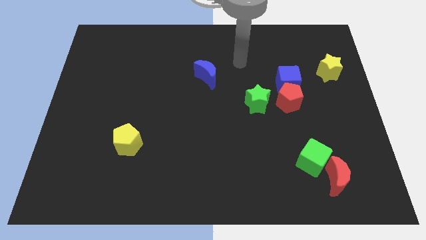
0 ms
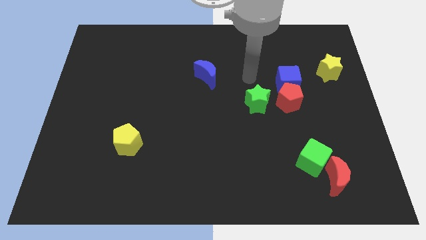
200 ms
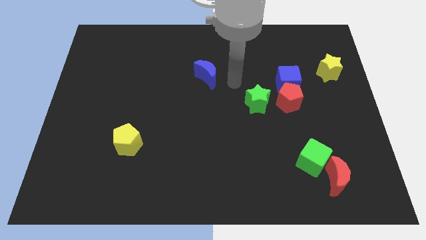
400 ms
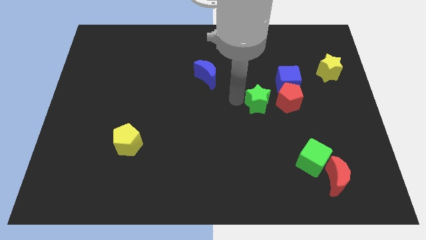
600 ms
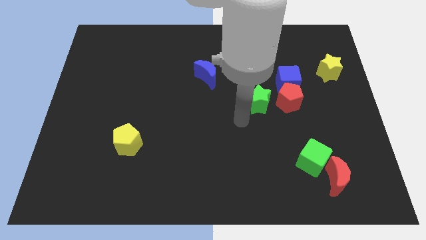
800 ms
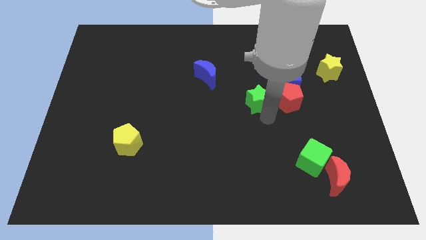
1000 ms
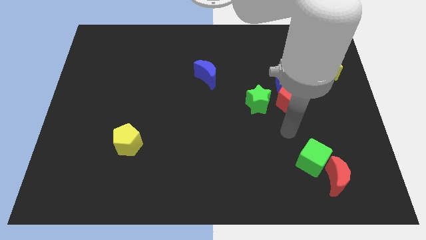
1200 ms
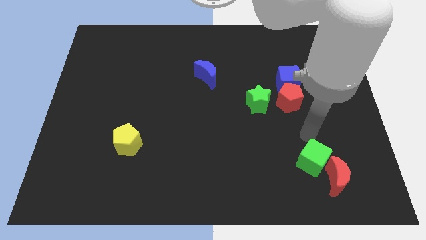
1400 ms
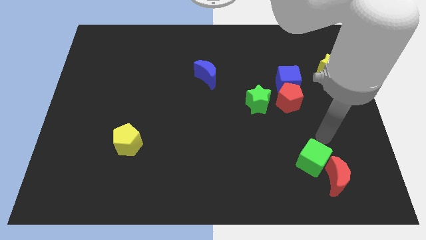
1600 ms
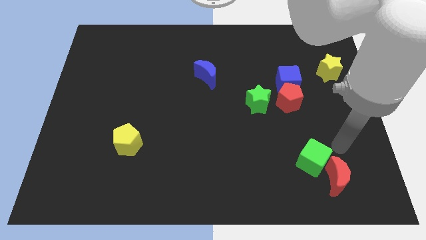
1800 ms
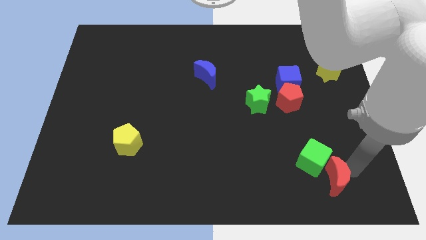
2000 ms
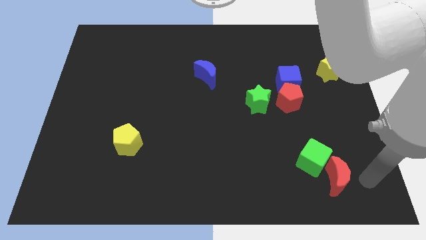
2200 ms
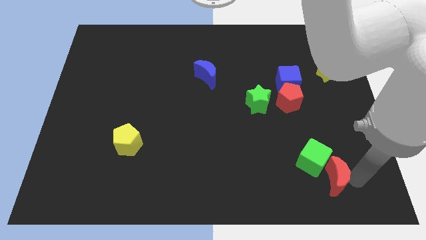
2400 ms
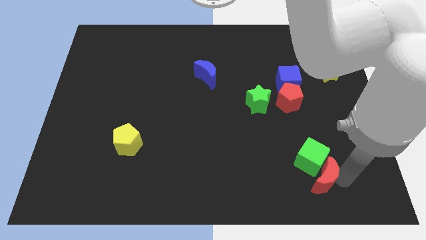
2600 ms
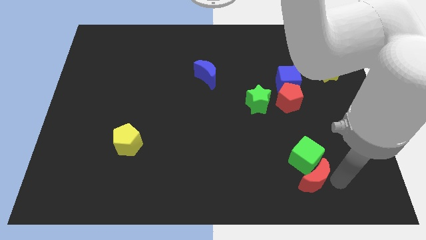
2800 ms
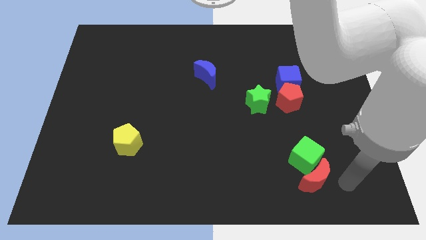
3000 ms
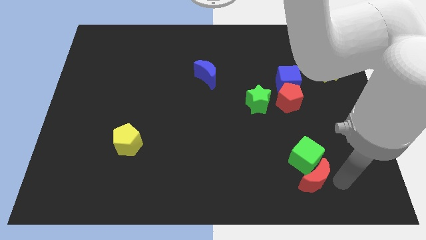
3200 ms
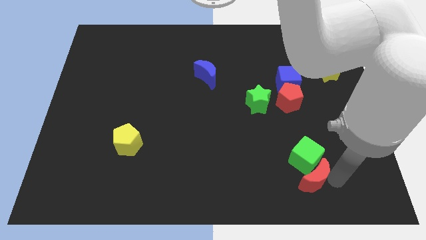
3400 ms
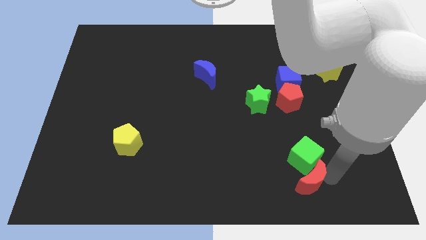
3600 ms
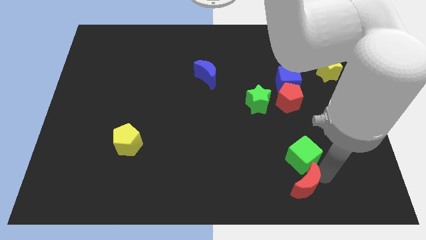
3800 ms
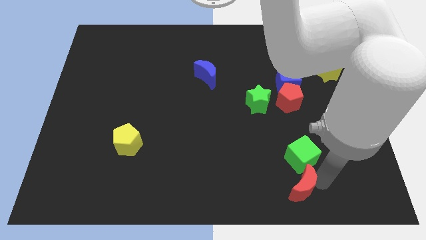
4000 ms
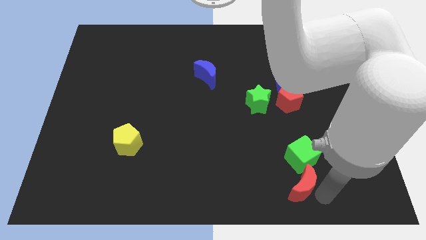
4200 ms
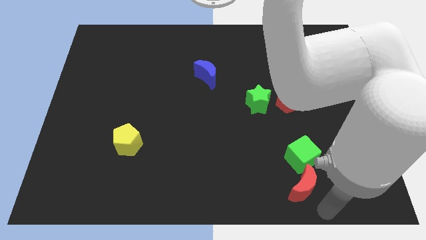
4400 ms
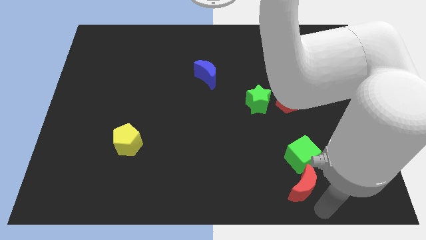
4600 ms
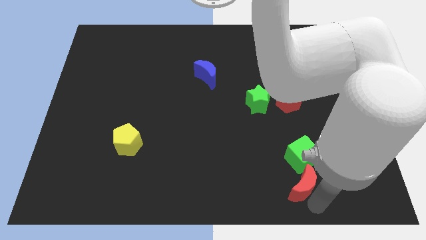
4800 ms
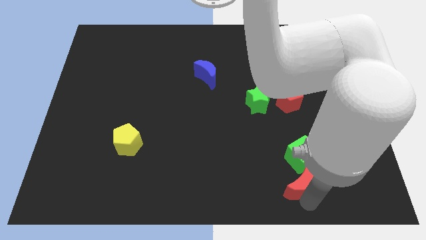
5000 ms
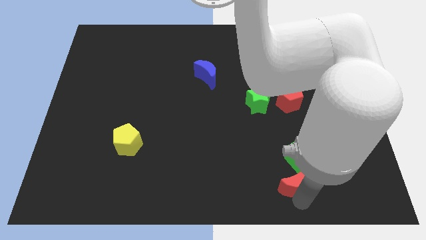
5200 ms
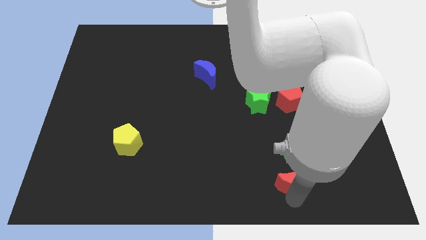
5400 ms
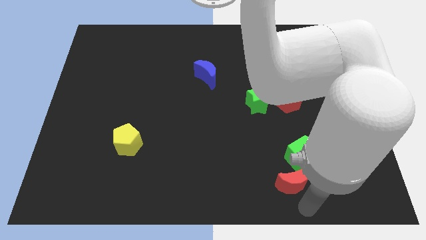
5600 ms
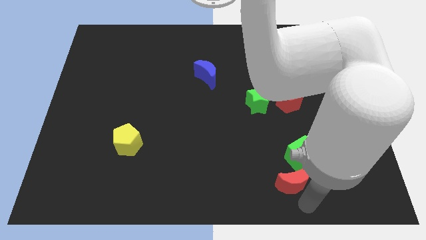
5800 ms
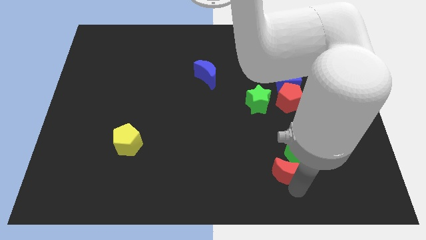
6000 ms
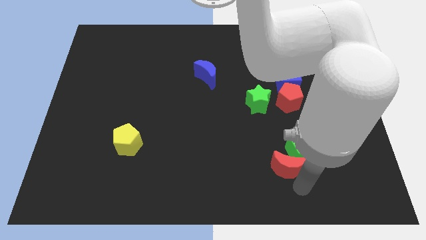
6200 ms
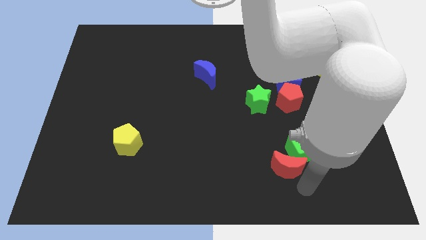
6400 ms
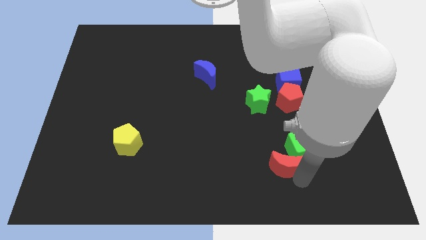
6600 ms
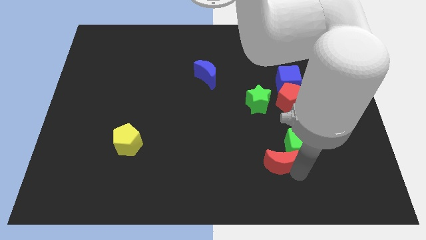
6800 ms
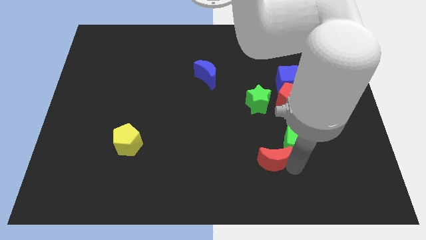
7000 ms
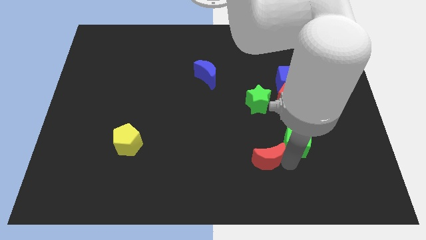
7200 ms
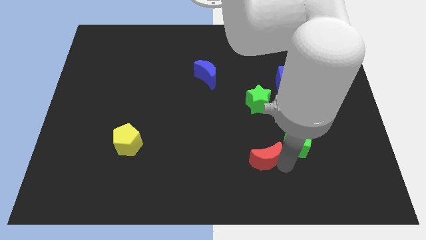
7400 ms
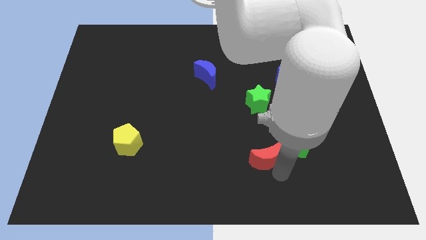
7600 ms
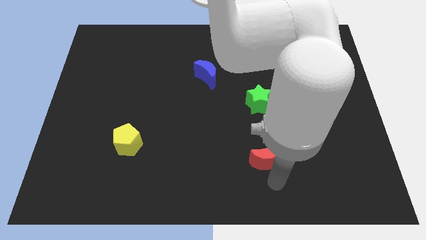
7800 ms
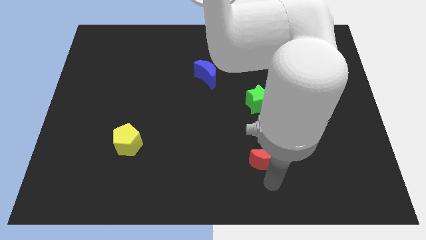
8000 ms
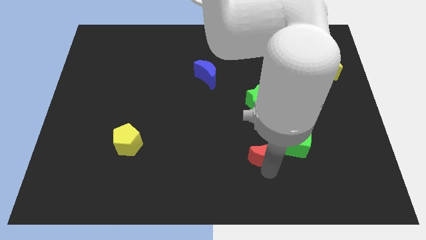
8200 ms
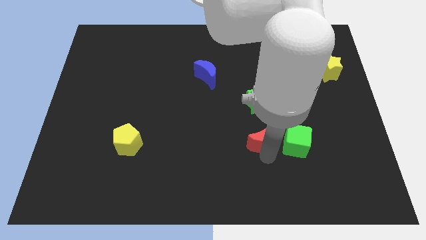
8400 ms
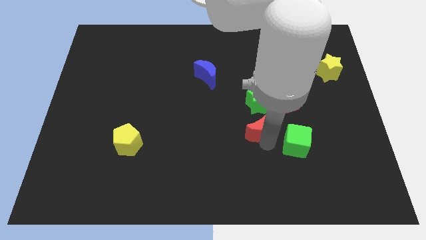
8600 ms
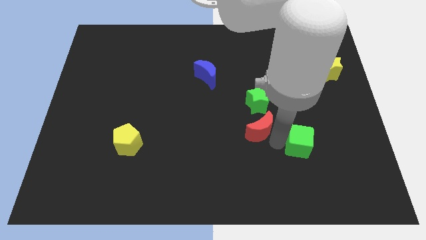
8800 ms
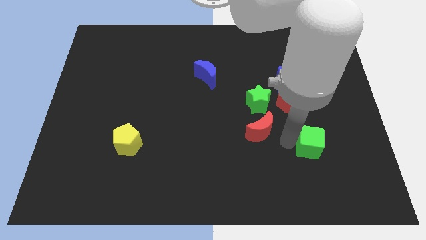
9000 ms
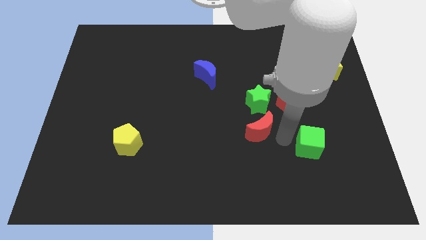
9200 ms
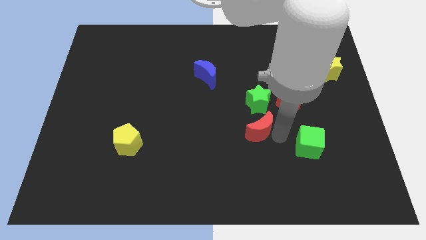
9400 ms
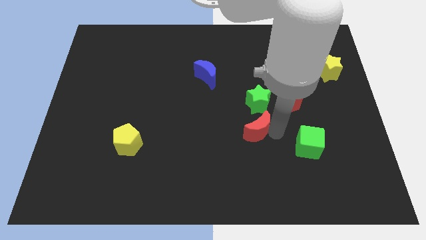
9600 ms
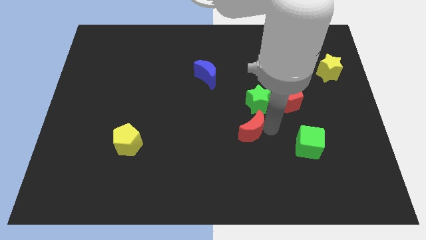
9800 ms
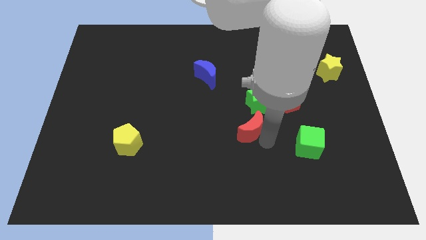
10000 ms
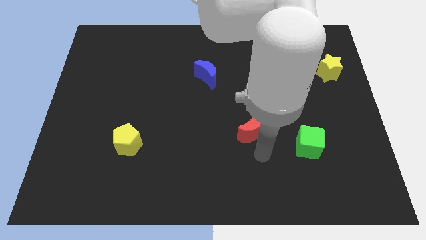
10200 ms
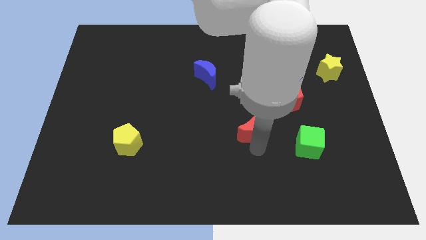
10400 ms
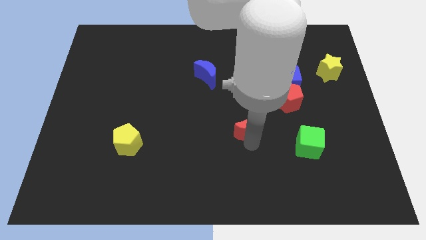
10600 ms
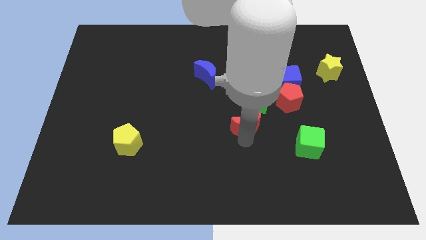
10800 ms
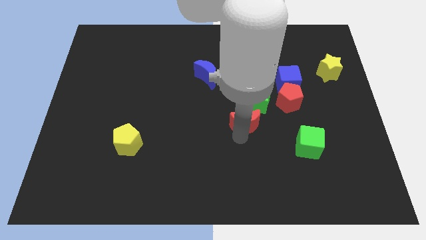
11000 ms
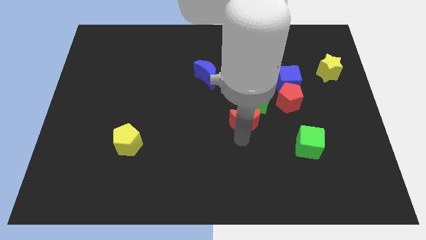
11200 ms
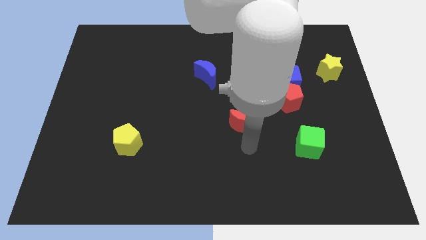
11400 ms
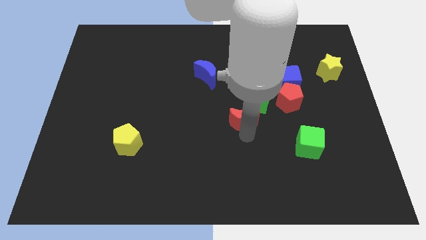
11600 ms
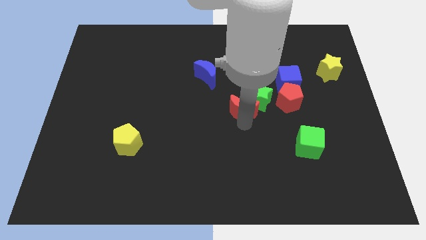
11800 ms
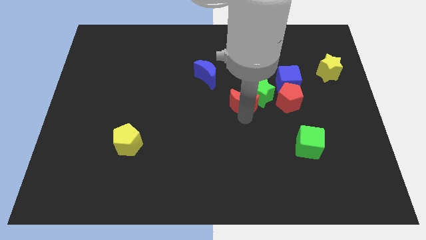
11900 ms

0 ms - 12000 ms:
move the red moon to the bottom right side of the blue moon

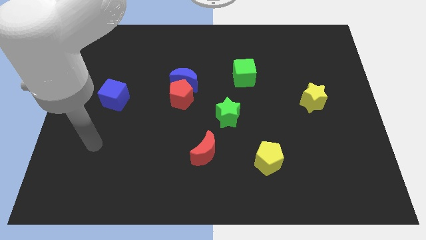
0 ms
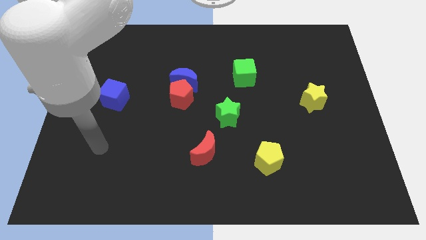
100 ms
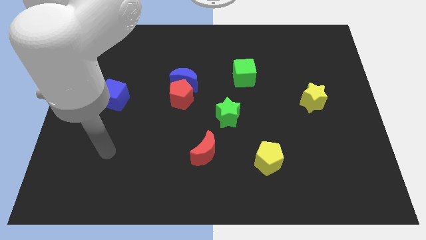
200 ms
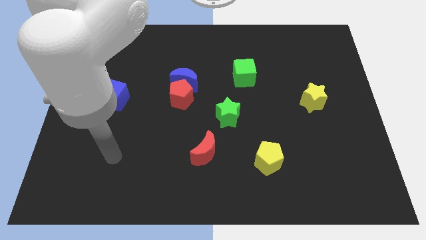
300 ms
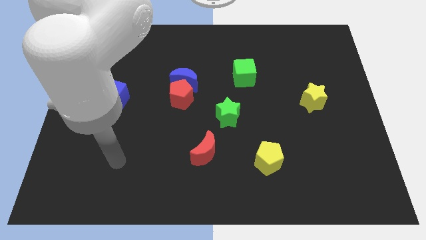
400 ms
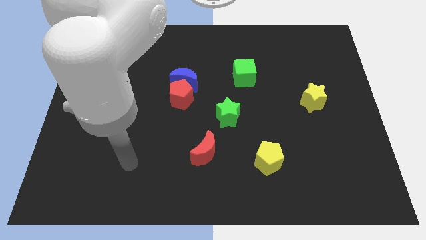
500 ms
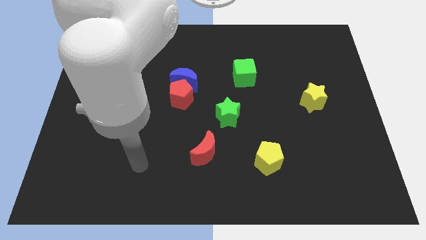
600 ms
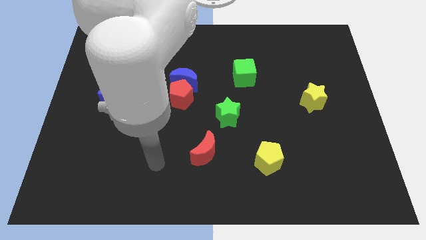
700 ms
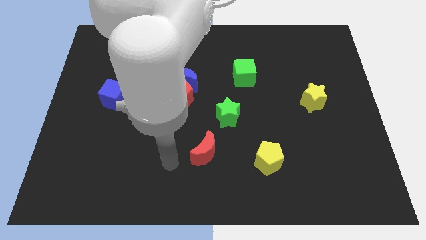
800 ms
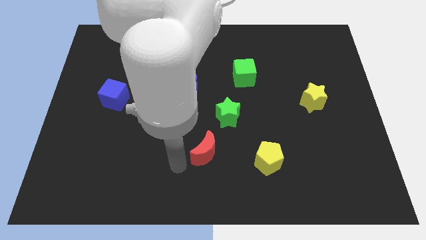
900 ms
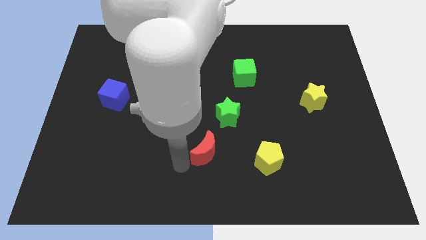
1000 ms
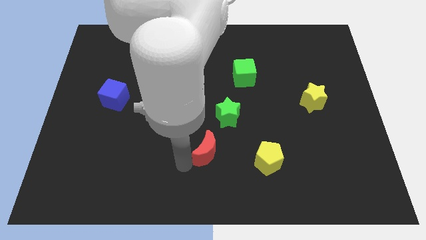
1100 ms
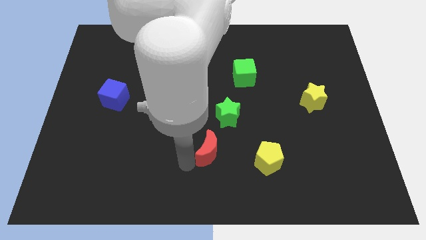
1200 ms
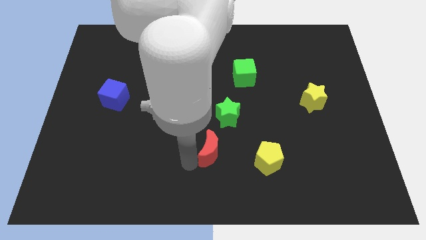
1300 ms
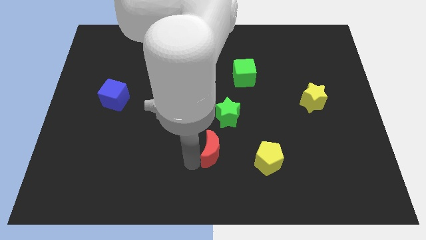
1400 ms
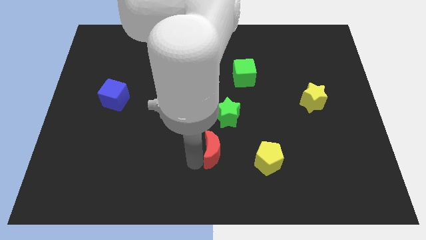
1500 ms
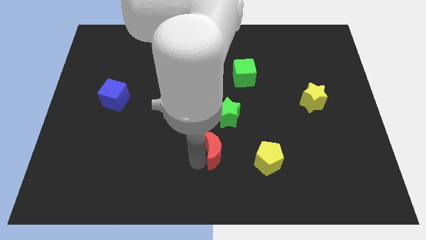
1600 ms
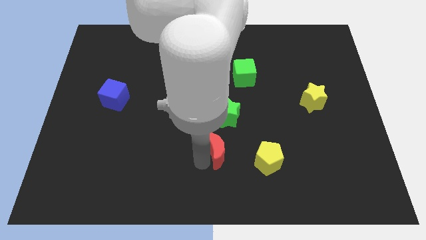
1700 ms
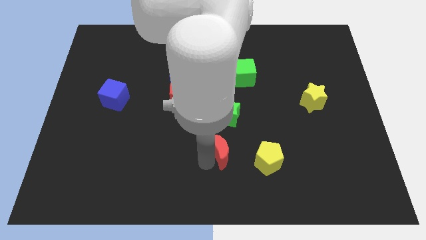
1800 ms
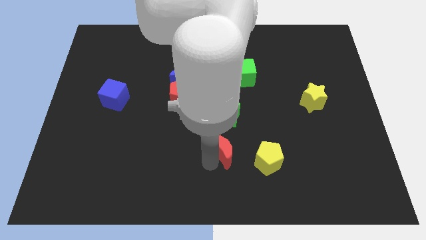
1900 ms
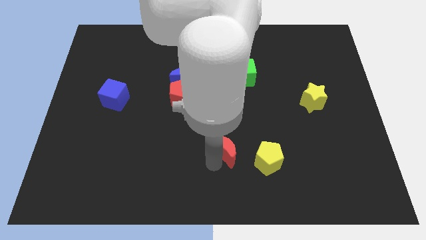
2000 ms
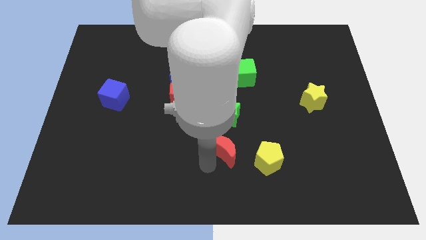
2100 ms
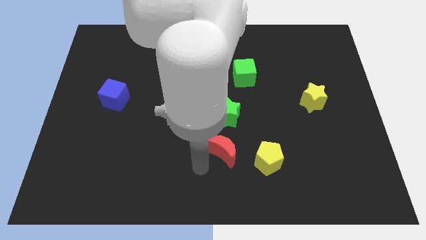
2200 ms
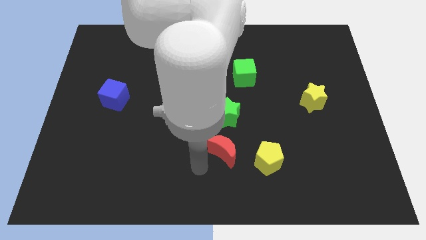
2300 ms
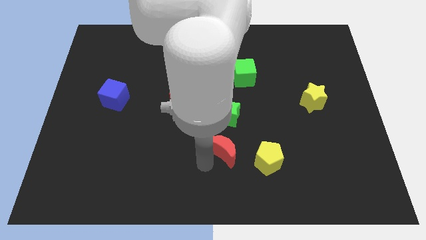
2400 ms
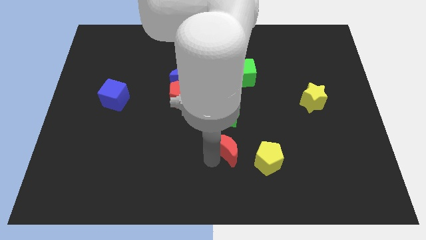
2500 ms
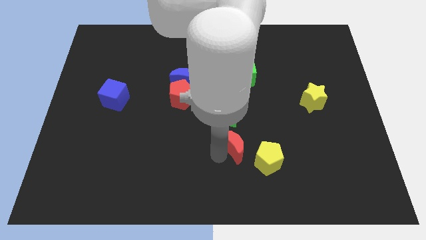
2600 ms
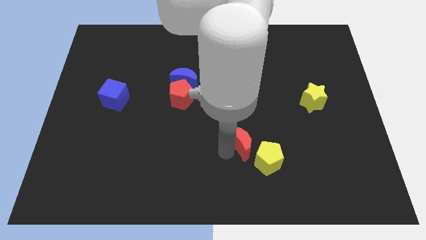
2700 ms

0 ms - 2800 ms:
move the red moon to the bottom right of the green star
